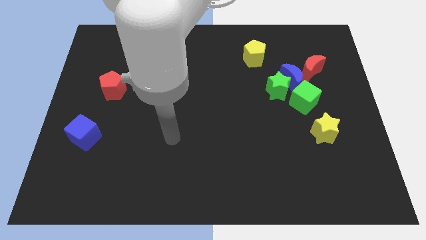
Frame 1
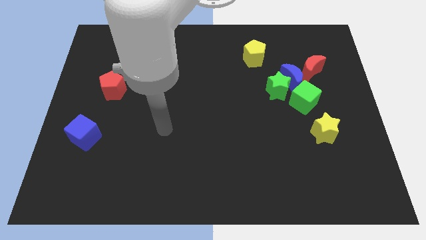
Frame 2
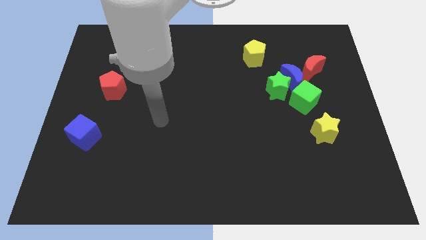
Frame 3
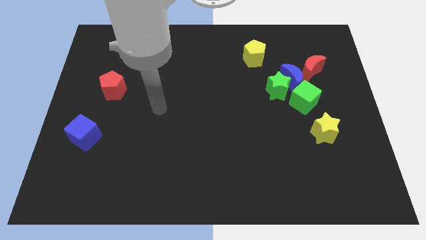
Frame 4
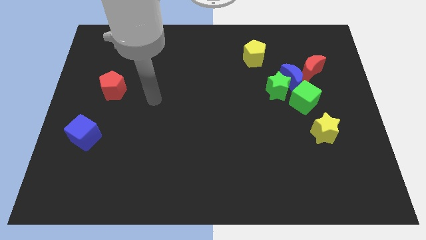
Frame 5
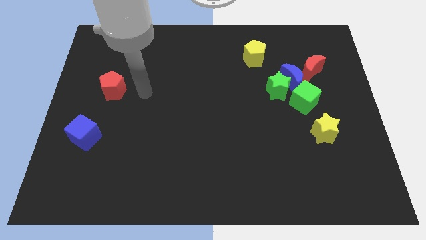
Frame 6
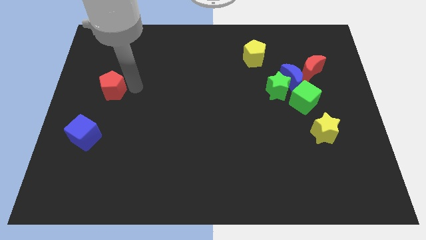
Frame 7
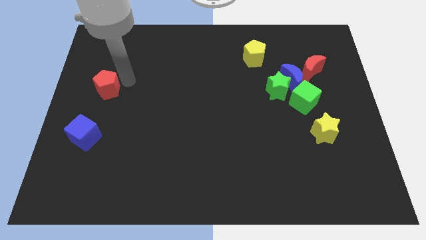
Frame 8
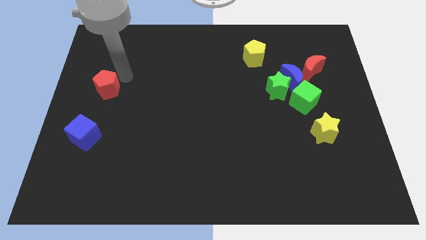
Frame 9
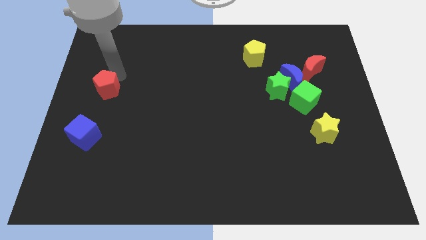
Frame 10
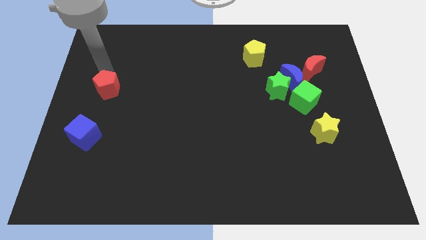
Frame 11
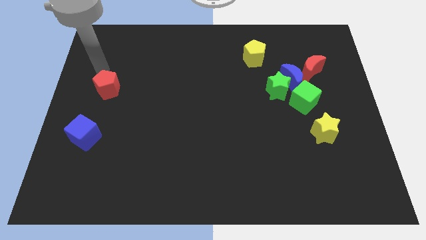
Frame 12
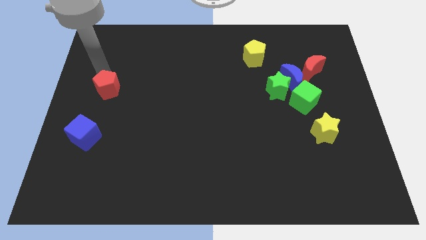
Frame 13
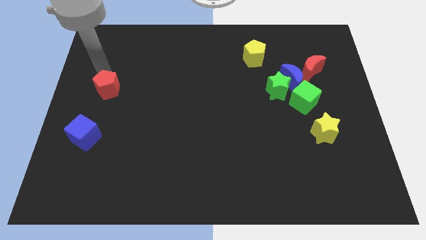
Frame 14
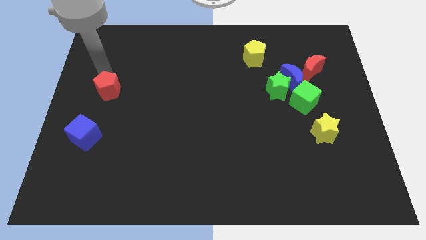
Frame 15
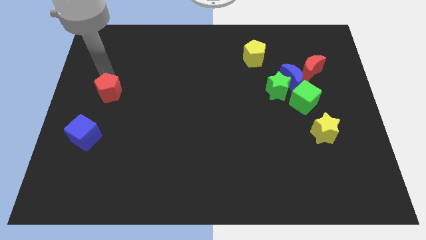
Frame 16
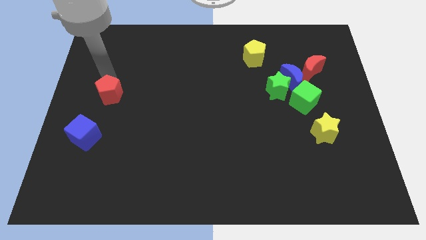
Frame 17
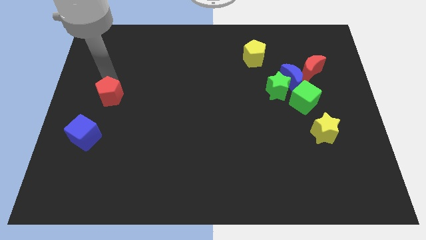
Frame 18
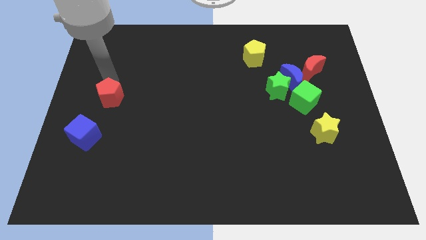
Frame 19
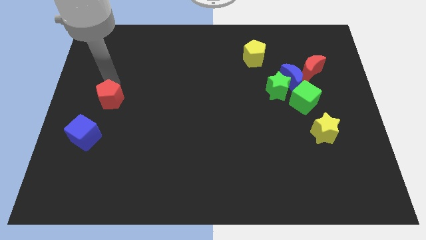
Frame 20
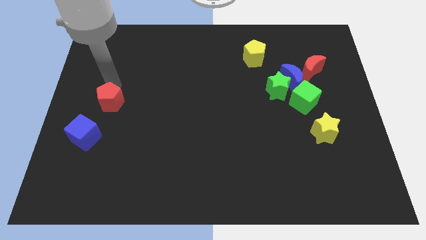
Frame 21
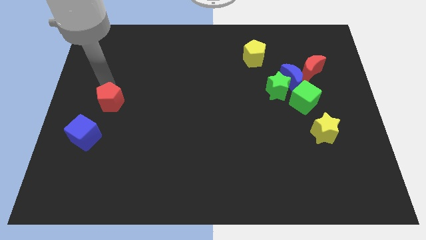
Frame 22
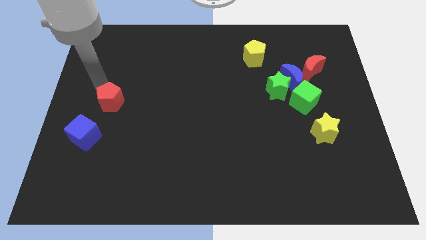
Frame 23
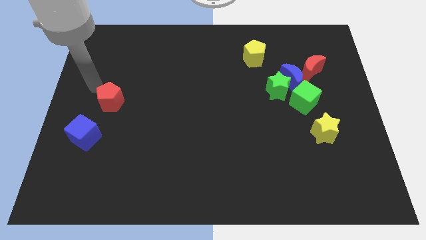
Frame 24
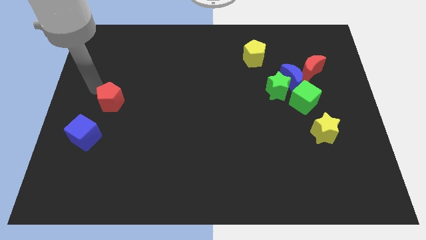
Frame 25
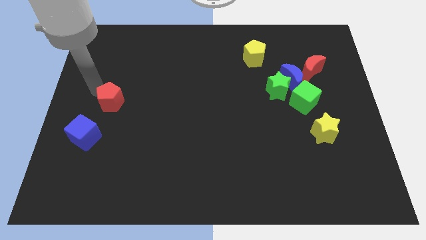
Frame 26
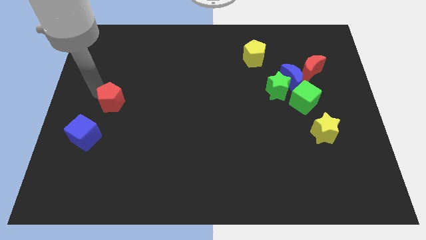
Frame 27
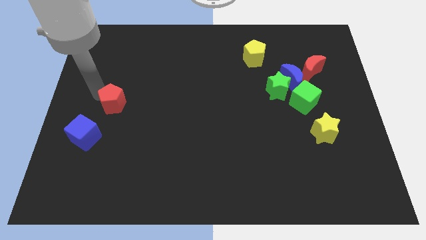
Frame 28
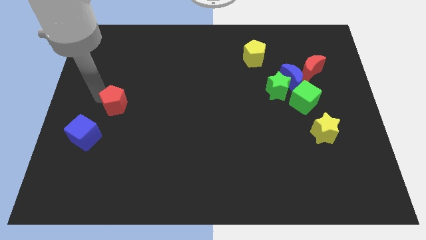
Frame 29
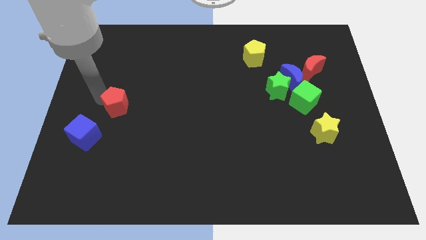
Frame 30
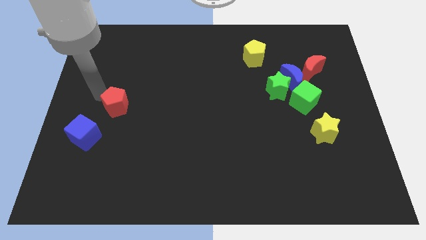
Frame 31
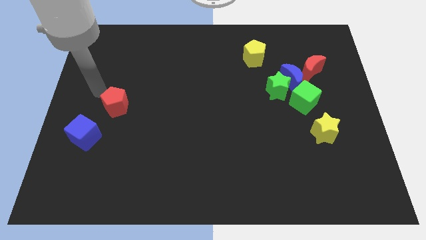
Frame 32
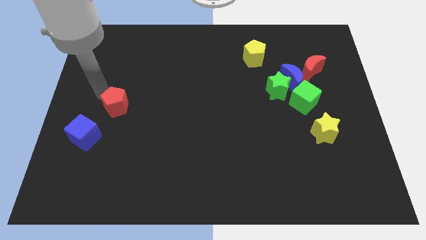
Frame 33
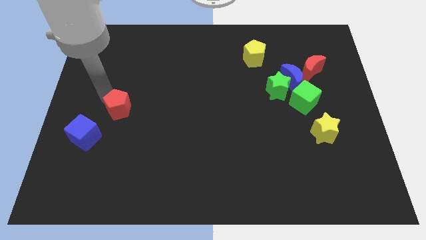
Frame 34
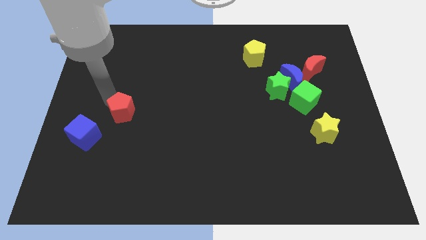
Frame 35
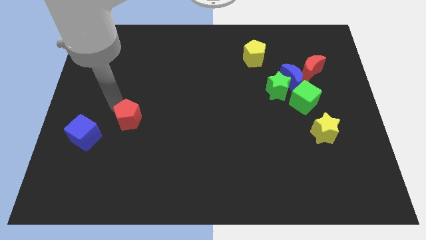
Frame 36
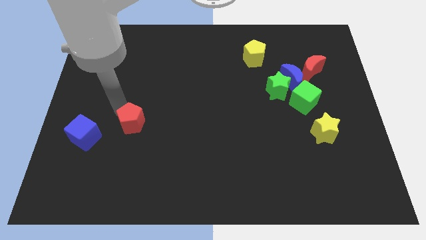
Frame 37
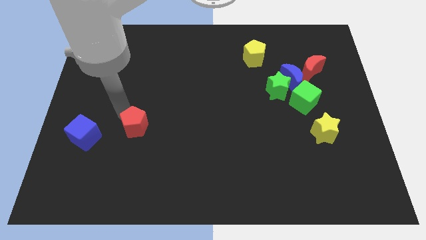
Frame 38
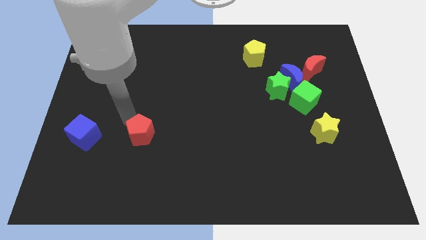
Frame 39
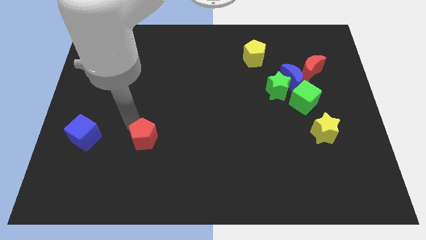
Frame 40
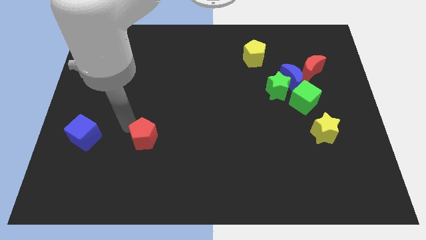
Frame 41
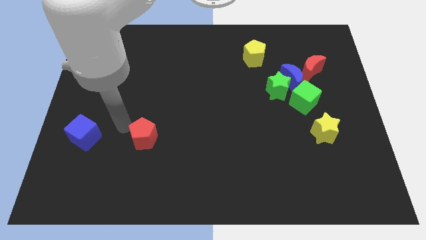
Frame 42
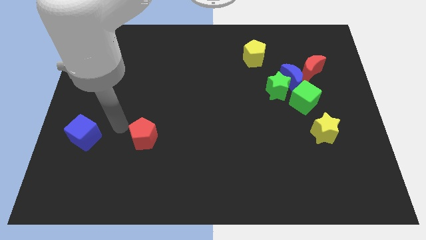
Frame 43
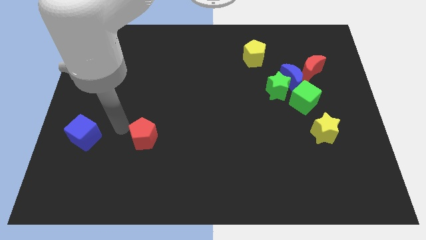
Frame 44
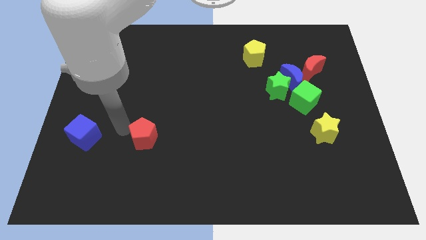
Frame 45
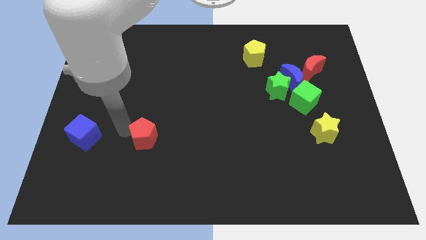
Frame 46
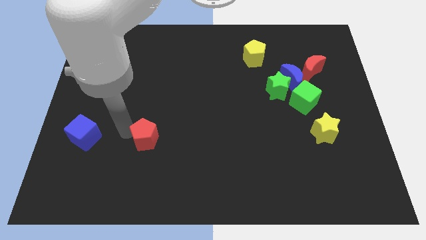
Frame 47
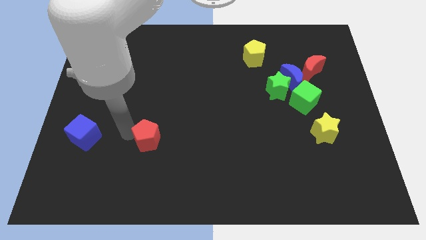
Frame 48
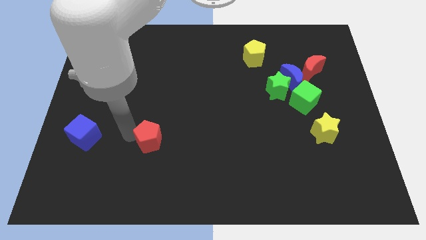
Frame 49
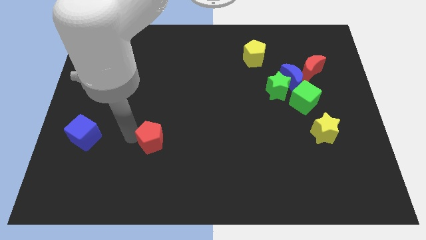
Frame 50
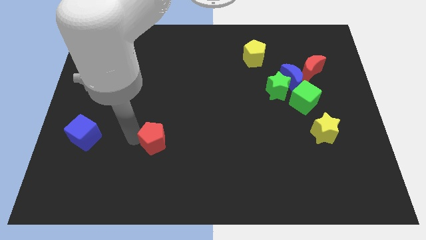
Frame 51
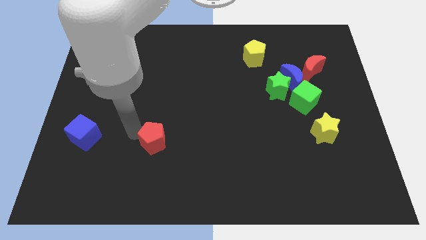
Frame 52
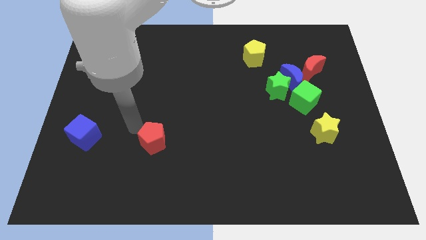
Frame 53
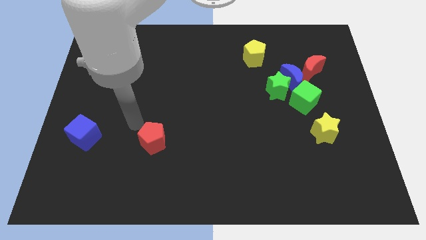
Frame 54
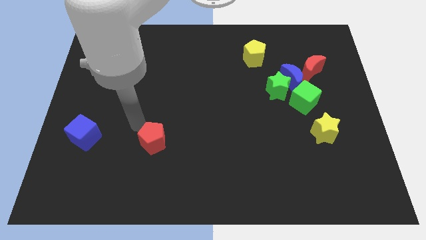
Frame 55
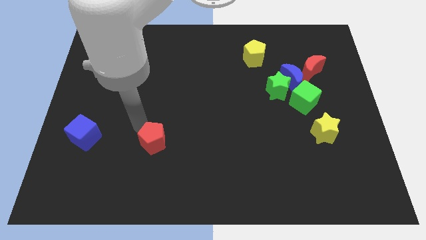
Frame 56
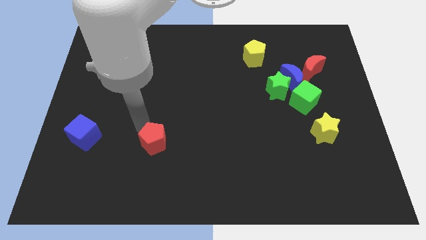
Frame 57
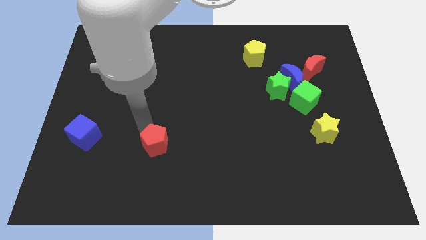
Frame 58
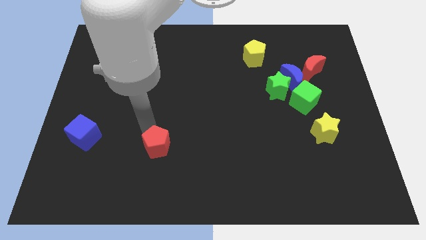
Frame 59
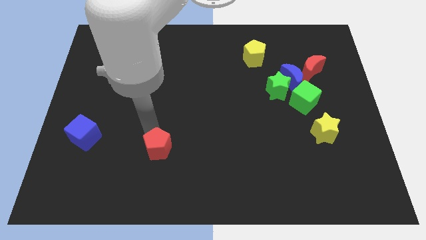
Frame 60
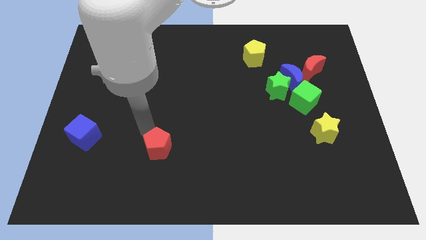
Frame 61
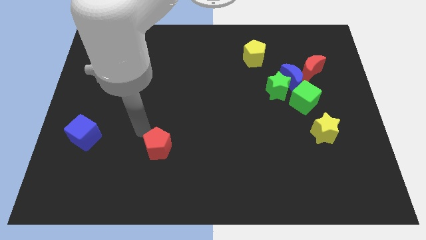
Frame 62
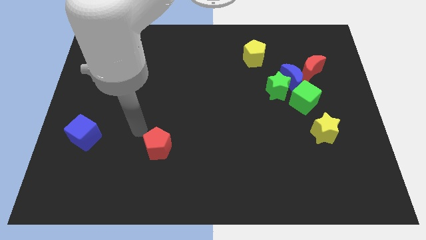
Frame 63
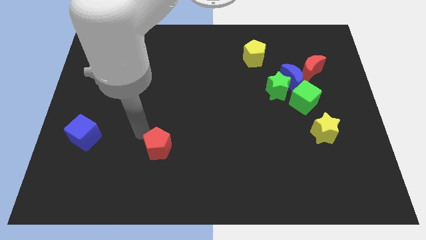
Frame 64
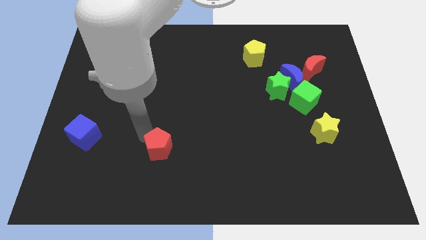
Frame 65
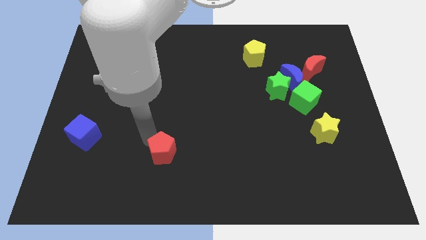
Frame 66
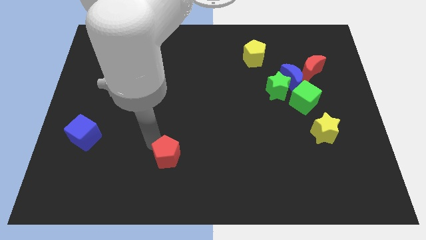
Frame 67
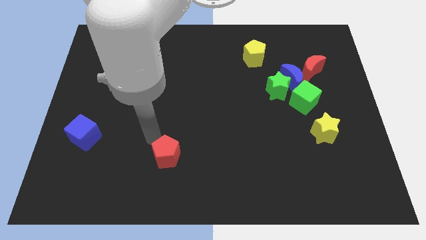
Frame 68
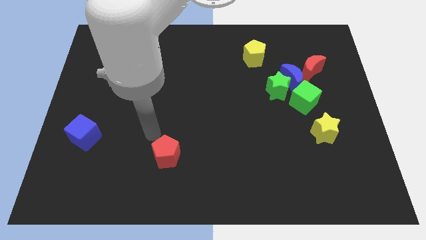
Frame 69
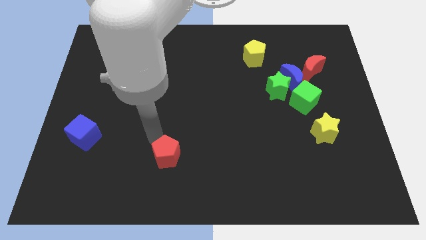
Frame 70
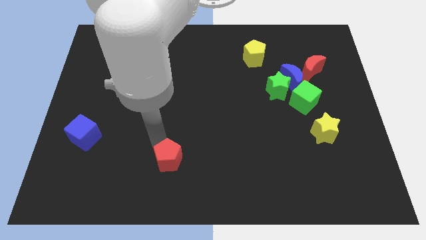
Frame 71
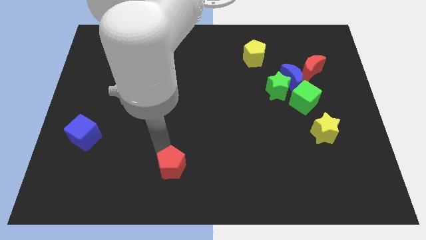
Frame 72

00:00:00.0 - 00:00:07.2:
move the red pentagon to the bottom side
